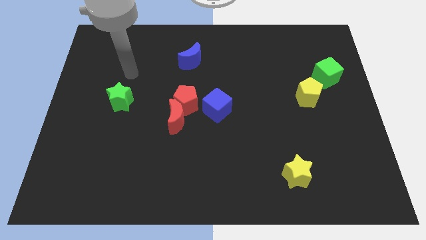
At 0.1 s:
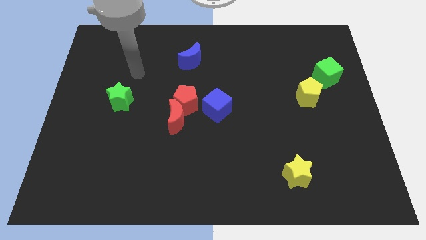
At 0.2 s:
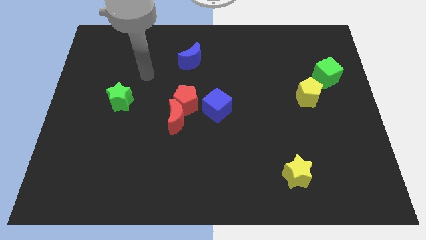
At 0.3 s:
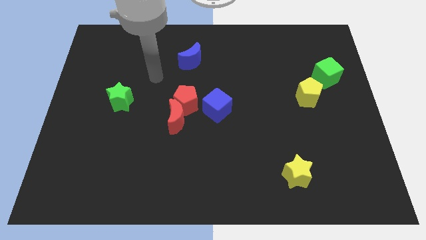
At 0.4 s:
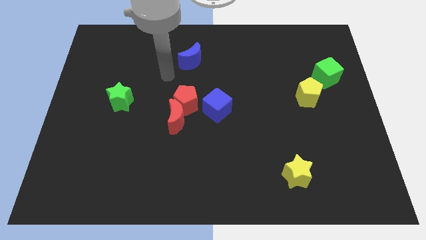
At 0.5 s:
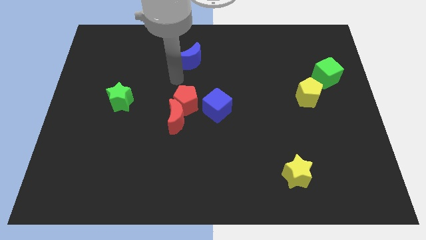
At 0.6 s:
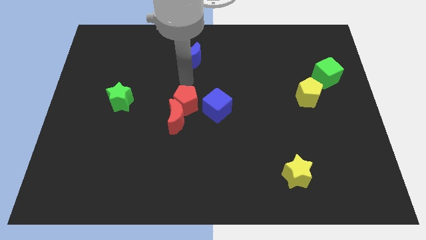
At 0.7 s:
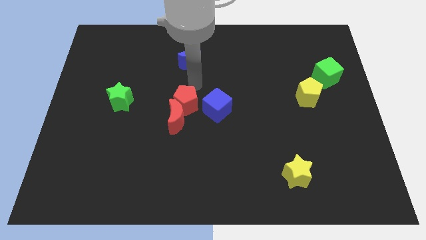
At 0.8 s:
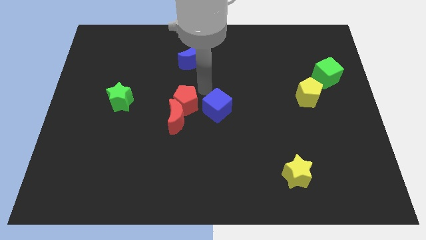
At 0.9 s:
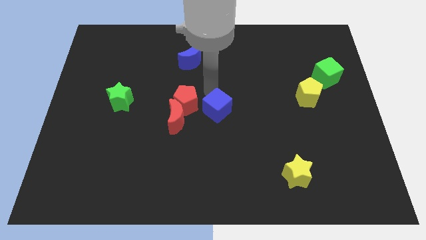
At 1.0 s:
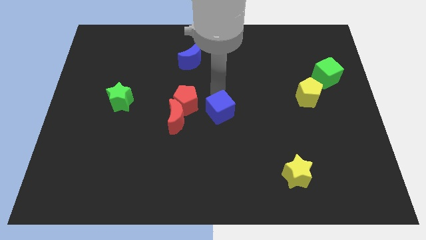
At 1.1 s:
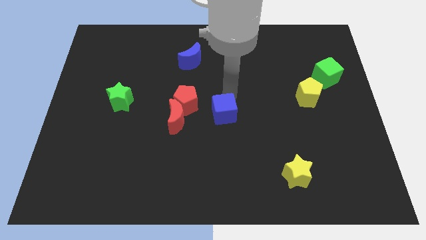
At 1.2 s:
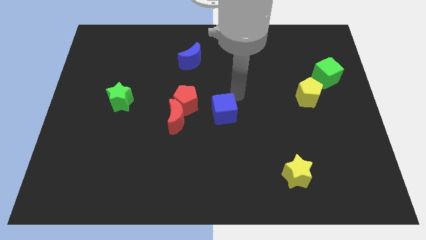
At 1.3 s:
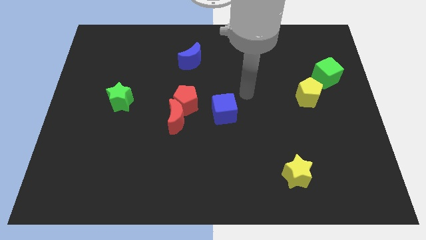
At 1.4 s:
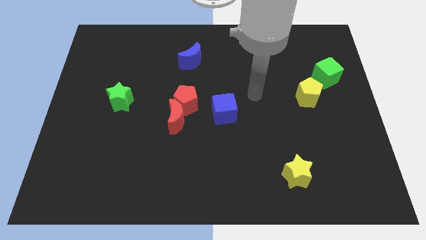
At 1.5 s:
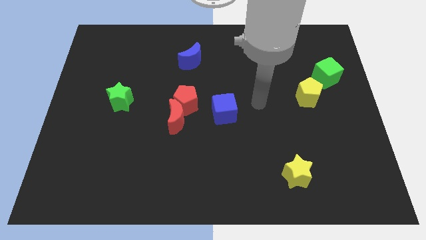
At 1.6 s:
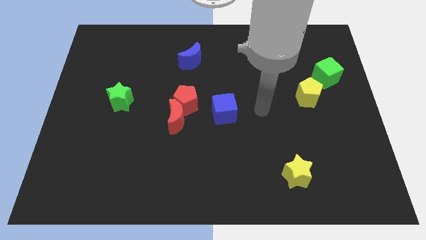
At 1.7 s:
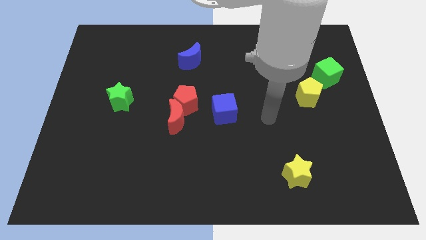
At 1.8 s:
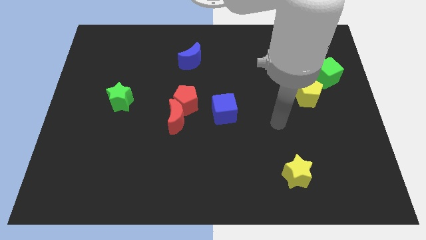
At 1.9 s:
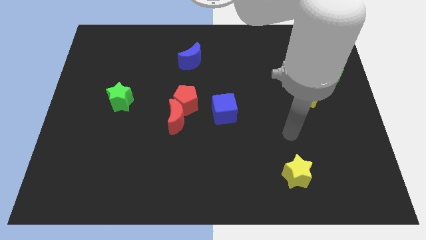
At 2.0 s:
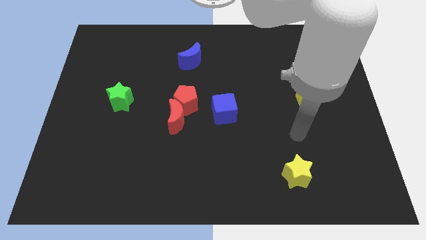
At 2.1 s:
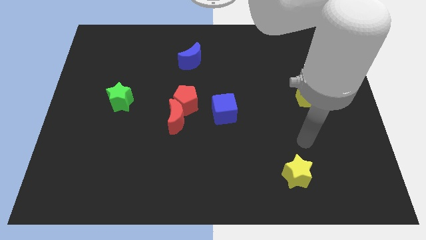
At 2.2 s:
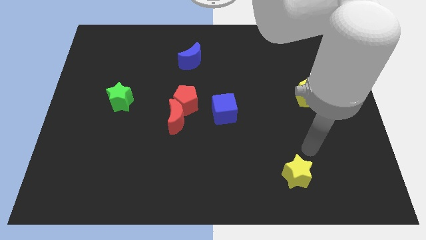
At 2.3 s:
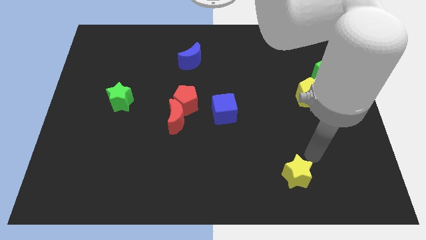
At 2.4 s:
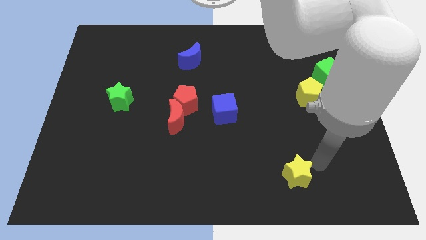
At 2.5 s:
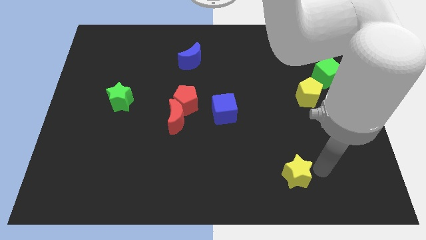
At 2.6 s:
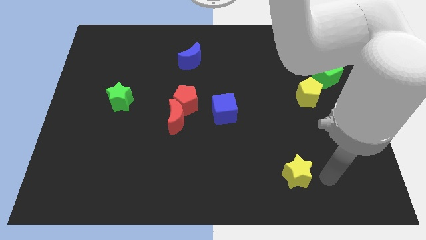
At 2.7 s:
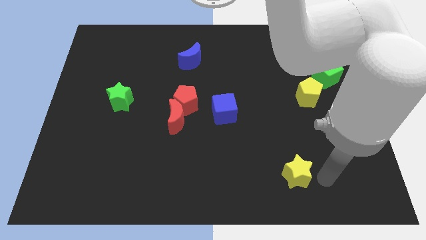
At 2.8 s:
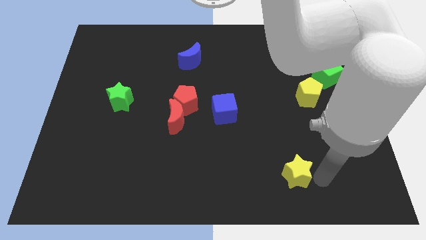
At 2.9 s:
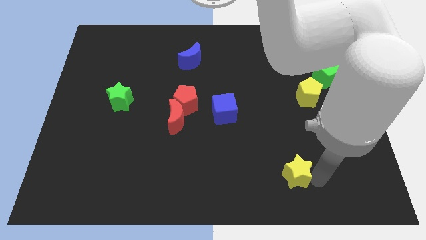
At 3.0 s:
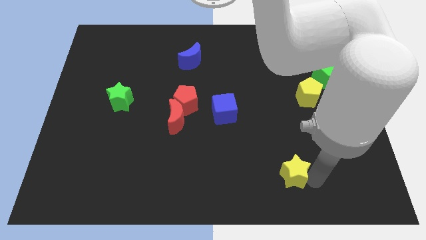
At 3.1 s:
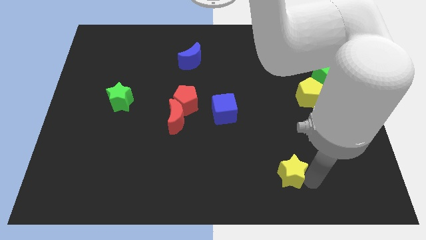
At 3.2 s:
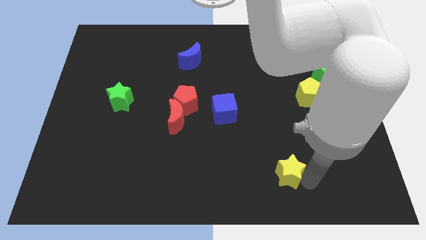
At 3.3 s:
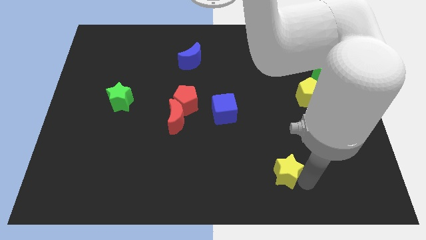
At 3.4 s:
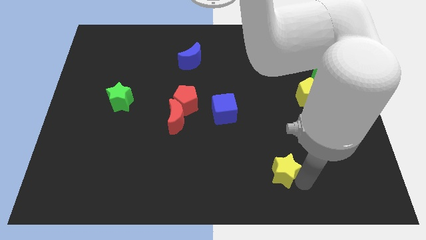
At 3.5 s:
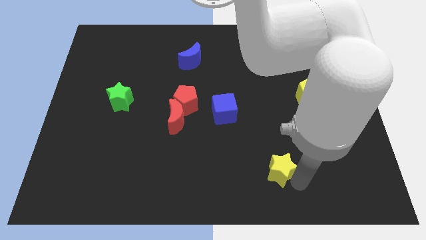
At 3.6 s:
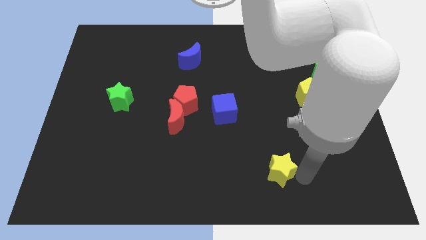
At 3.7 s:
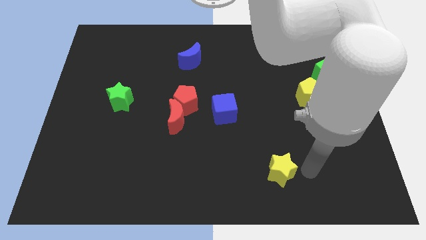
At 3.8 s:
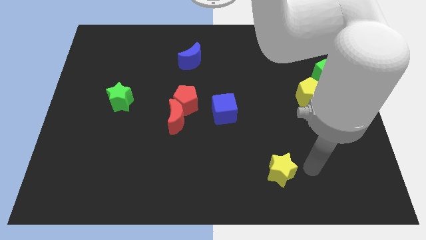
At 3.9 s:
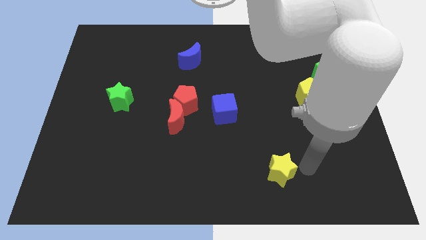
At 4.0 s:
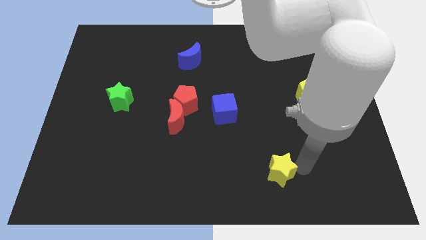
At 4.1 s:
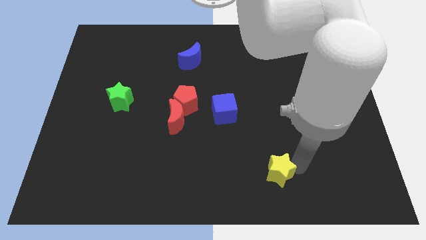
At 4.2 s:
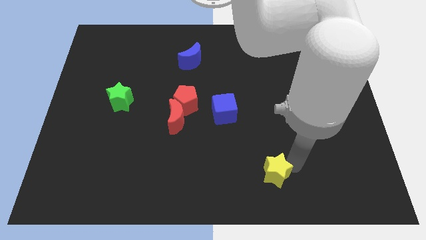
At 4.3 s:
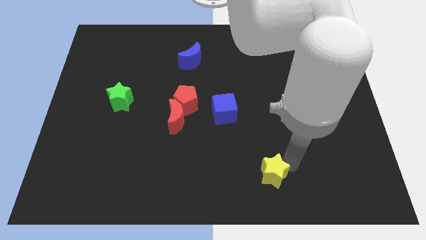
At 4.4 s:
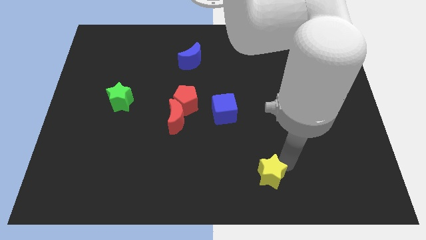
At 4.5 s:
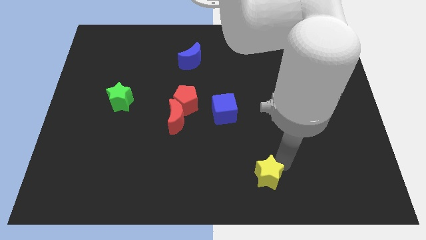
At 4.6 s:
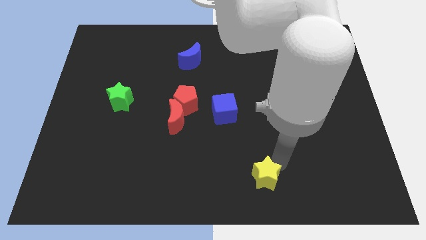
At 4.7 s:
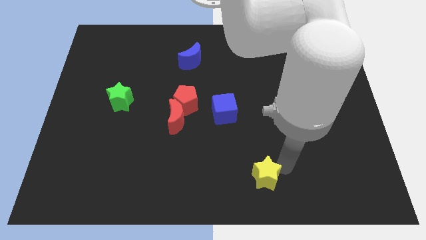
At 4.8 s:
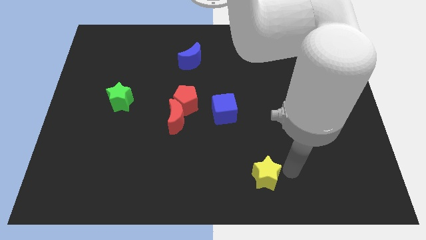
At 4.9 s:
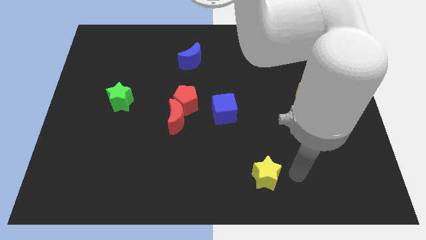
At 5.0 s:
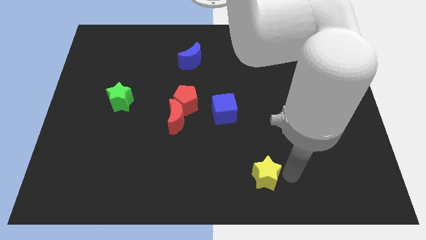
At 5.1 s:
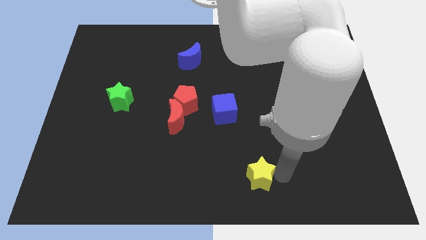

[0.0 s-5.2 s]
slightly move the yellow star left

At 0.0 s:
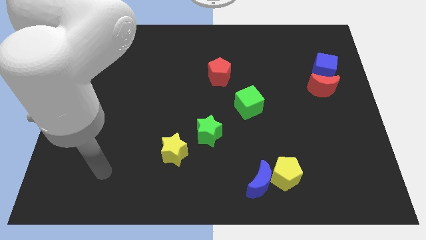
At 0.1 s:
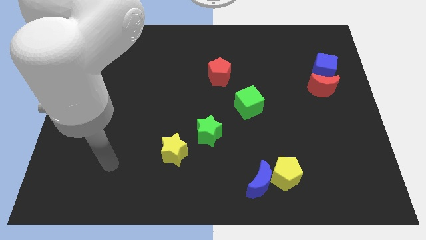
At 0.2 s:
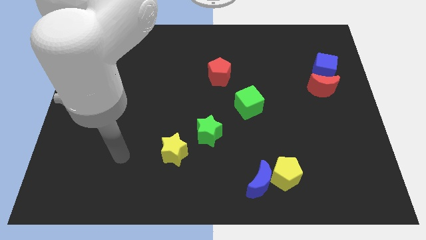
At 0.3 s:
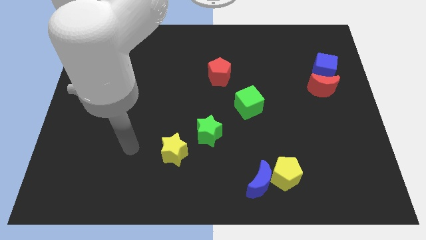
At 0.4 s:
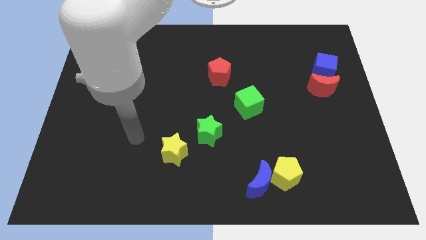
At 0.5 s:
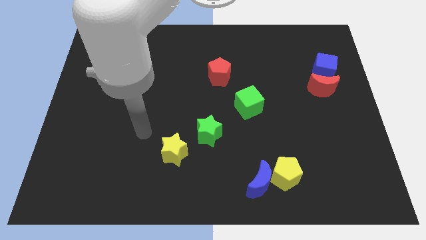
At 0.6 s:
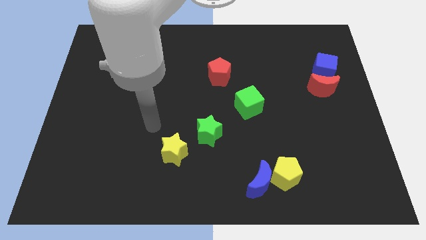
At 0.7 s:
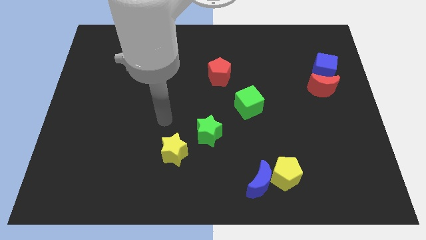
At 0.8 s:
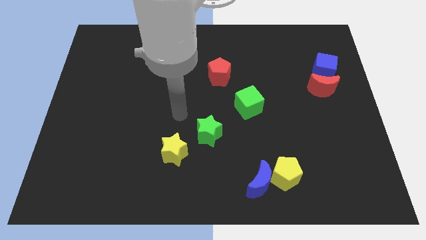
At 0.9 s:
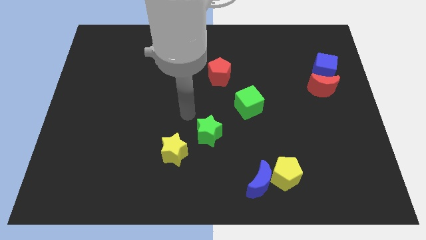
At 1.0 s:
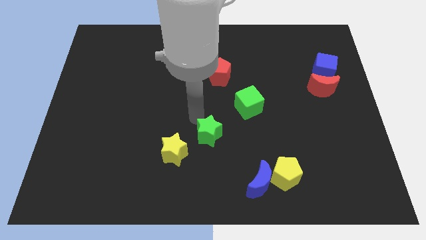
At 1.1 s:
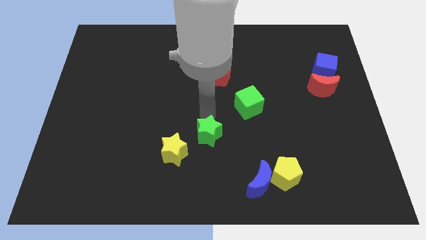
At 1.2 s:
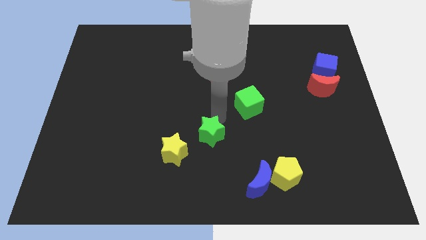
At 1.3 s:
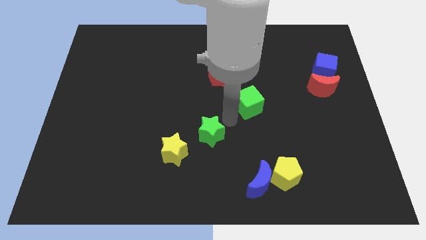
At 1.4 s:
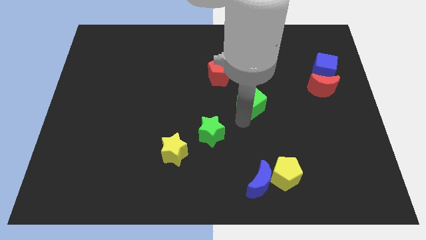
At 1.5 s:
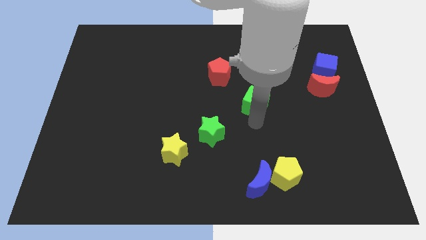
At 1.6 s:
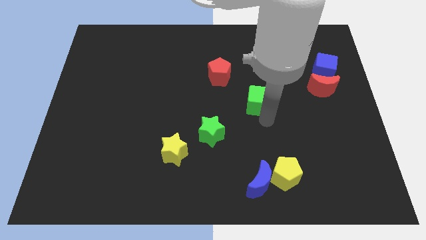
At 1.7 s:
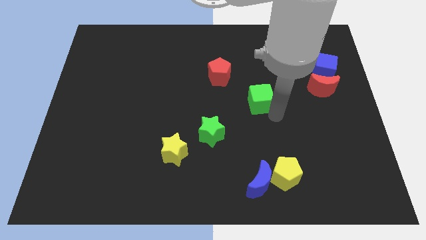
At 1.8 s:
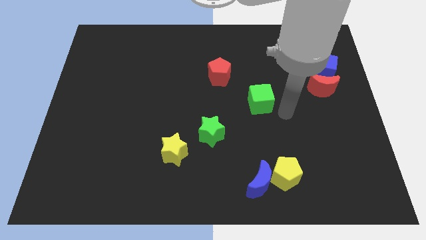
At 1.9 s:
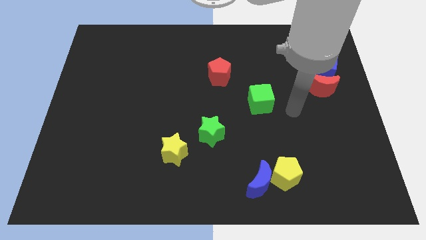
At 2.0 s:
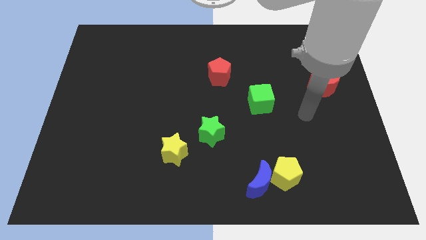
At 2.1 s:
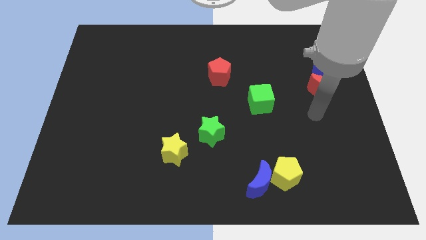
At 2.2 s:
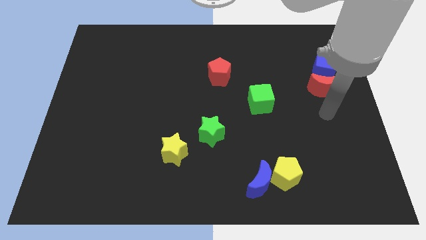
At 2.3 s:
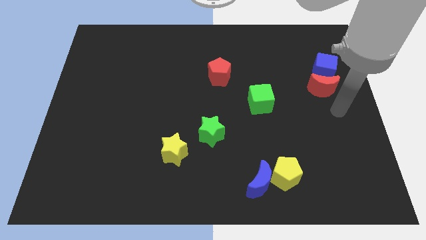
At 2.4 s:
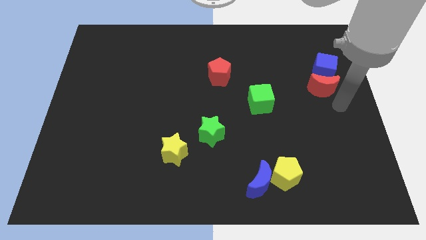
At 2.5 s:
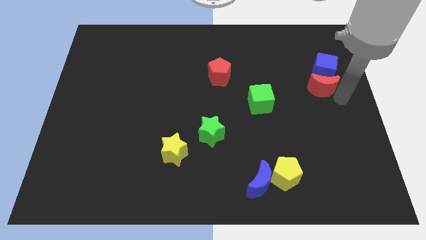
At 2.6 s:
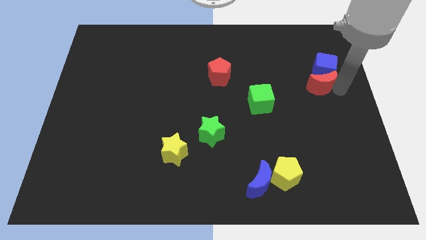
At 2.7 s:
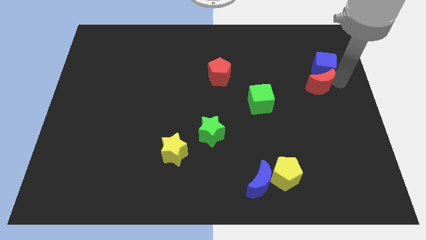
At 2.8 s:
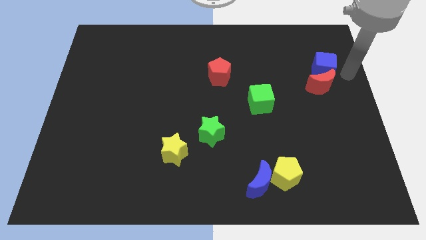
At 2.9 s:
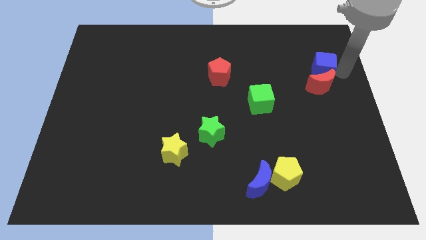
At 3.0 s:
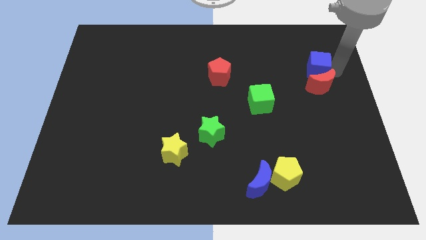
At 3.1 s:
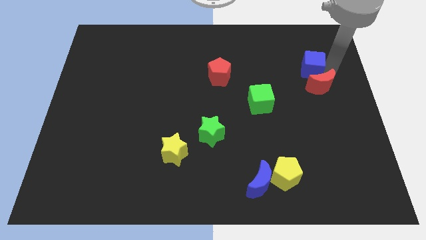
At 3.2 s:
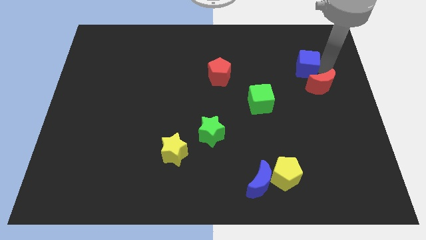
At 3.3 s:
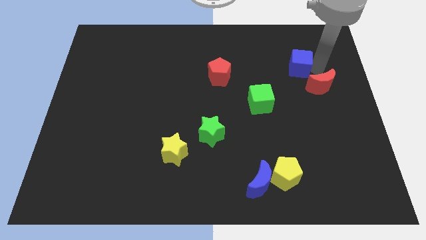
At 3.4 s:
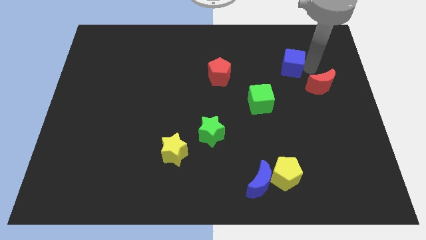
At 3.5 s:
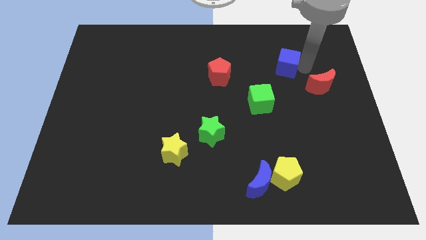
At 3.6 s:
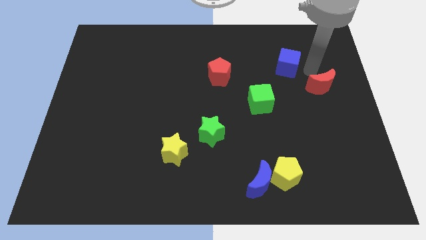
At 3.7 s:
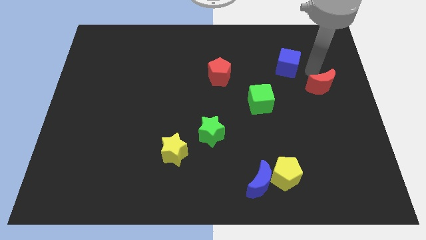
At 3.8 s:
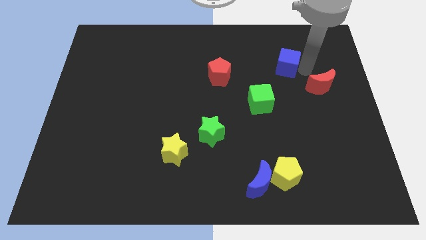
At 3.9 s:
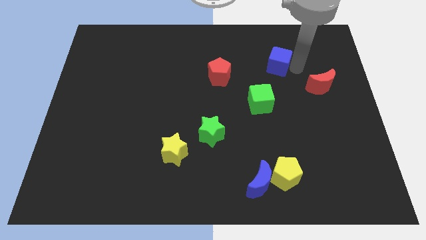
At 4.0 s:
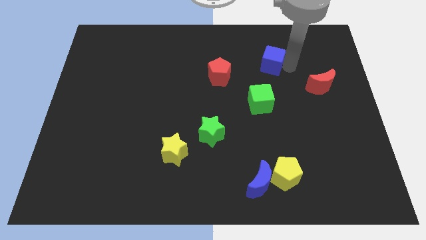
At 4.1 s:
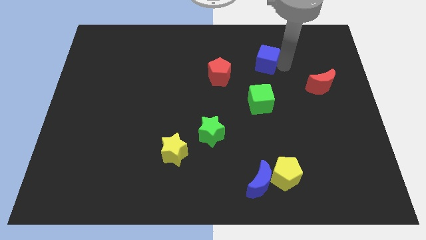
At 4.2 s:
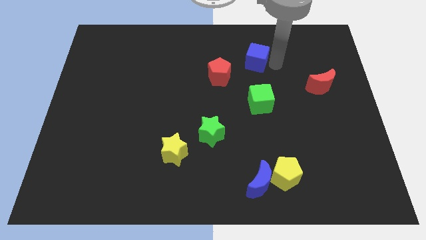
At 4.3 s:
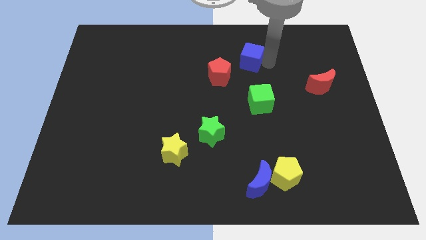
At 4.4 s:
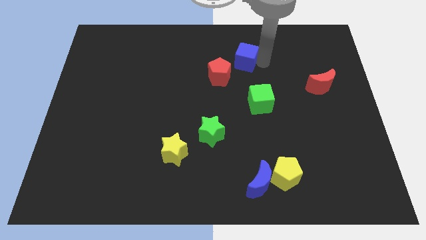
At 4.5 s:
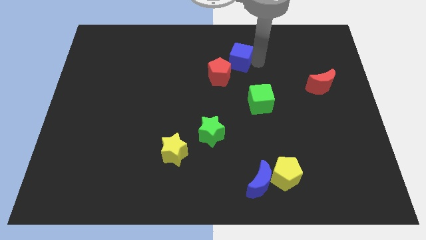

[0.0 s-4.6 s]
push the blue cube left
